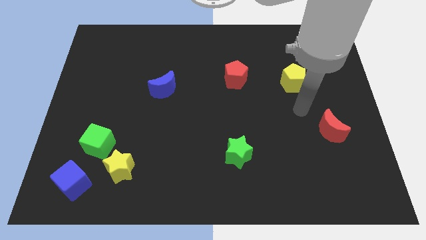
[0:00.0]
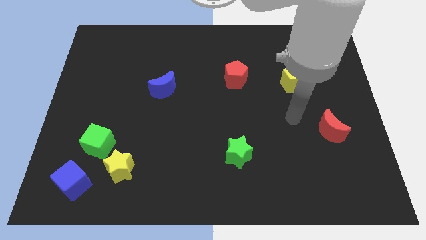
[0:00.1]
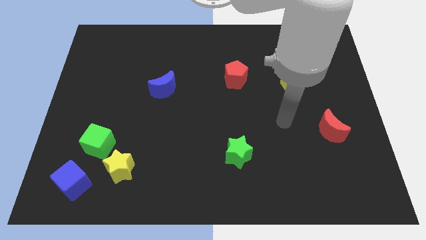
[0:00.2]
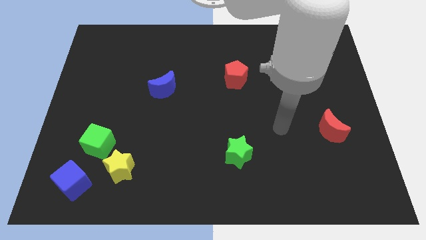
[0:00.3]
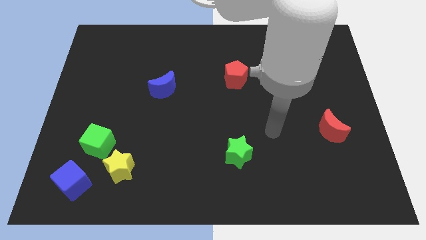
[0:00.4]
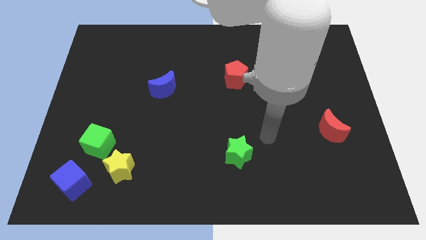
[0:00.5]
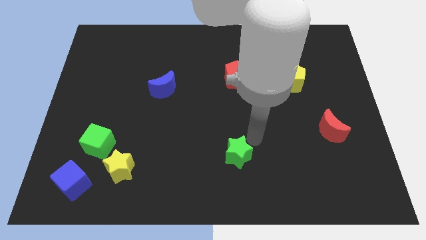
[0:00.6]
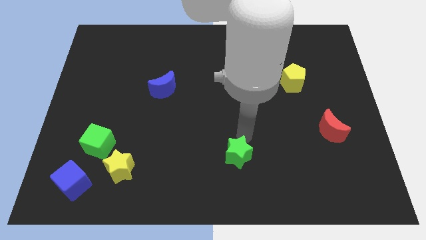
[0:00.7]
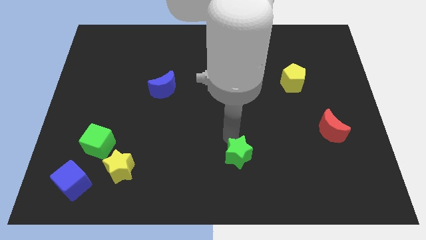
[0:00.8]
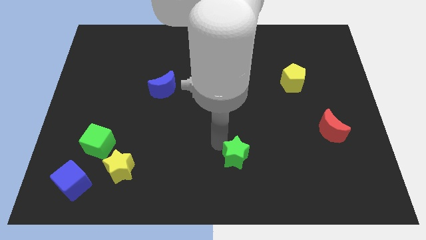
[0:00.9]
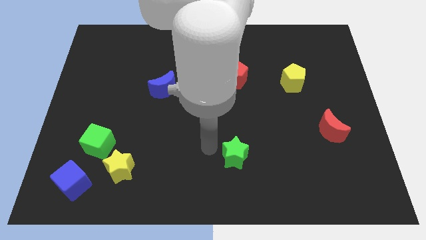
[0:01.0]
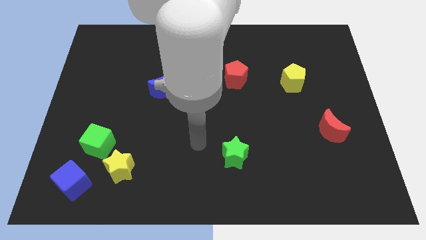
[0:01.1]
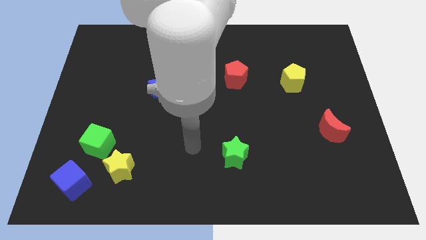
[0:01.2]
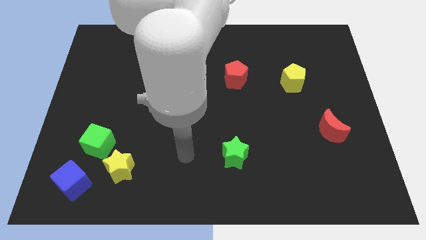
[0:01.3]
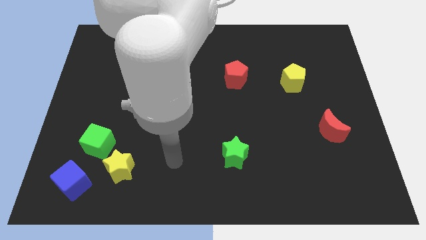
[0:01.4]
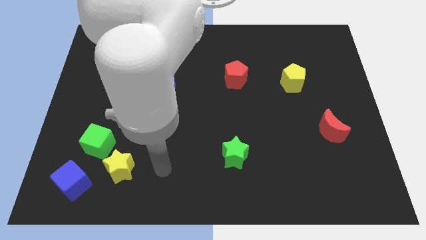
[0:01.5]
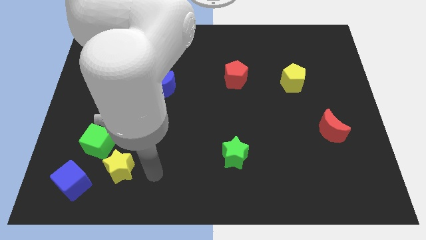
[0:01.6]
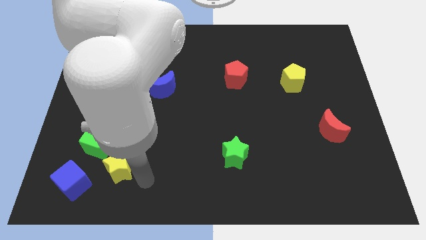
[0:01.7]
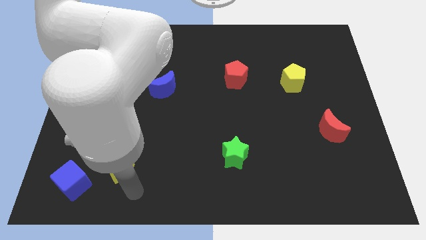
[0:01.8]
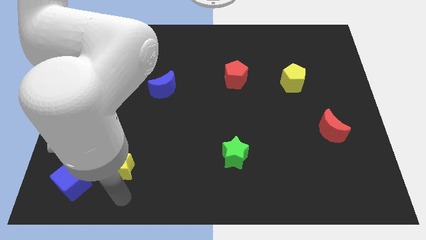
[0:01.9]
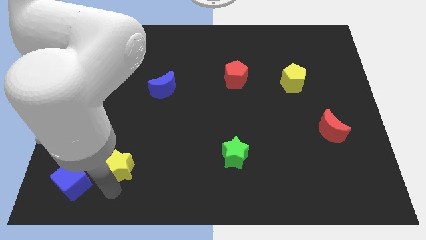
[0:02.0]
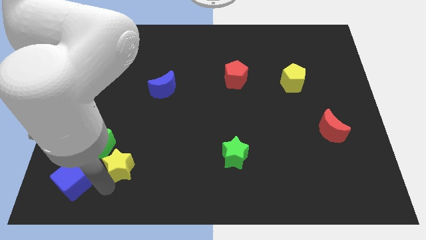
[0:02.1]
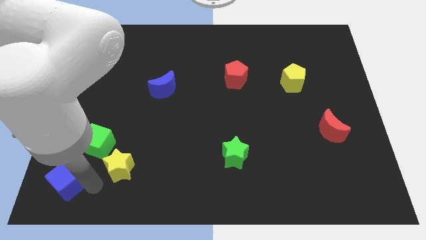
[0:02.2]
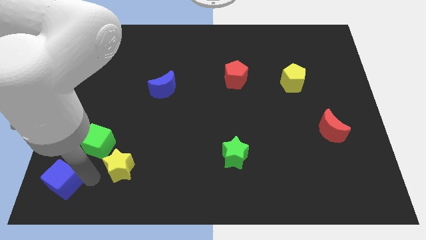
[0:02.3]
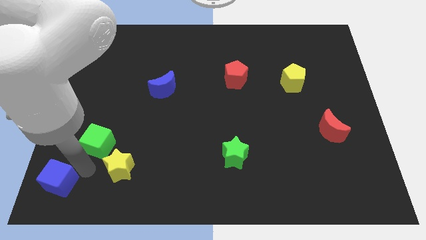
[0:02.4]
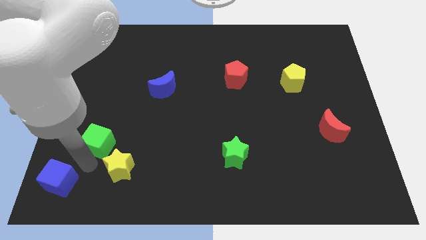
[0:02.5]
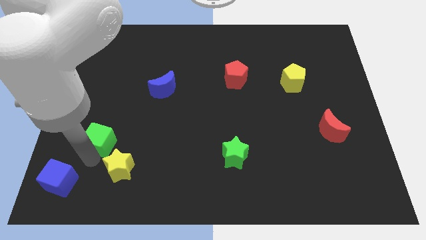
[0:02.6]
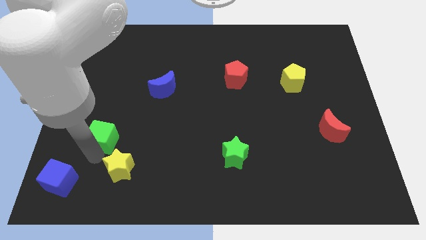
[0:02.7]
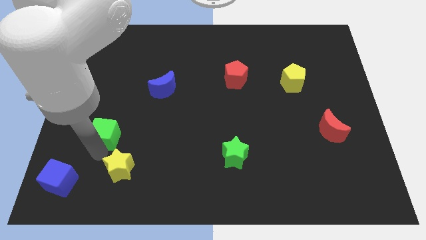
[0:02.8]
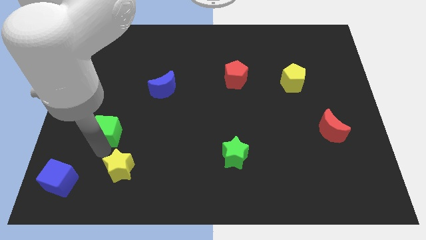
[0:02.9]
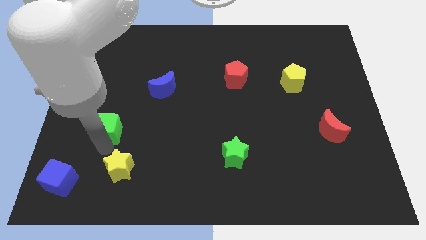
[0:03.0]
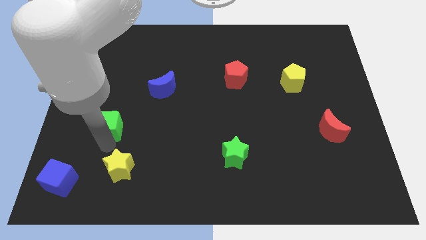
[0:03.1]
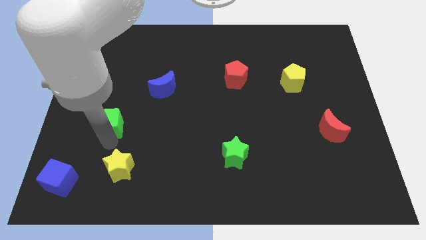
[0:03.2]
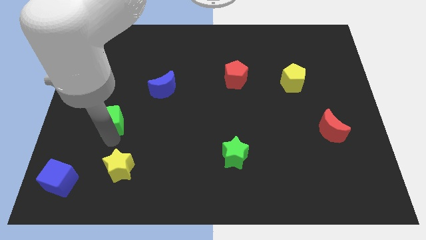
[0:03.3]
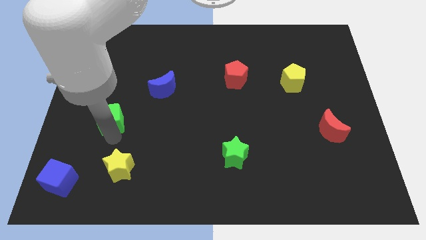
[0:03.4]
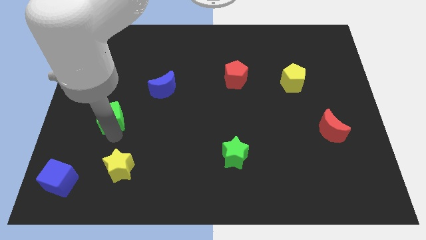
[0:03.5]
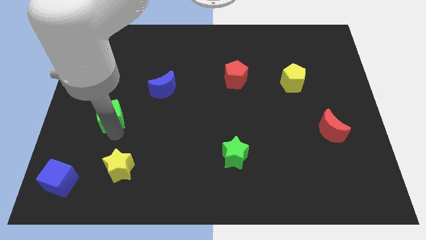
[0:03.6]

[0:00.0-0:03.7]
slide the green cube up a little

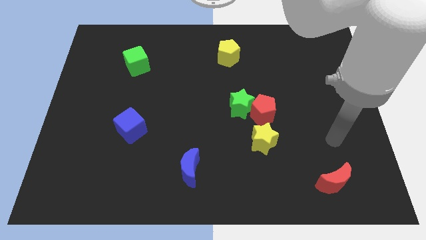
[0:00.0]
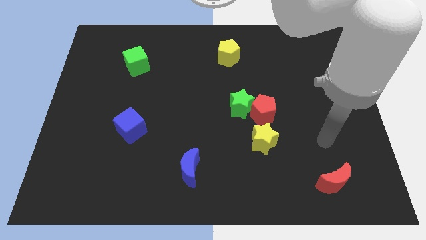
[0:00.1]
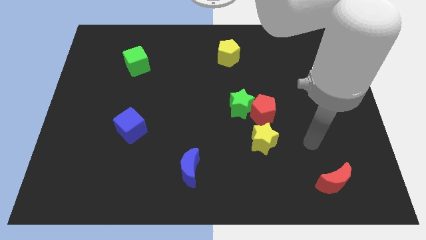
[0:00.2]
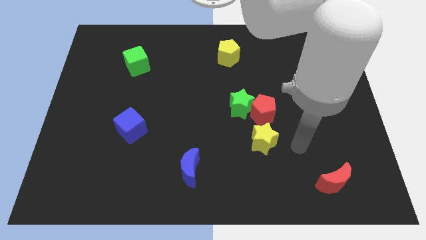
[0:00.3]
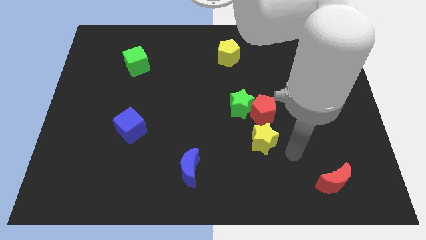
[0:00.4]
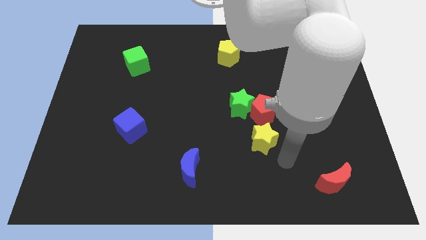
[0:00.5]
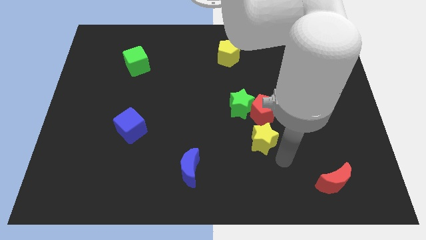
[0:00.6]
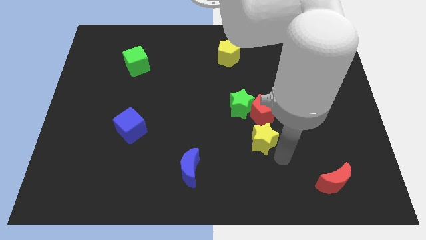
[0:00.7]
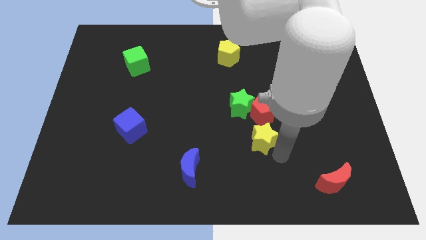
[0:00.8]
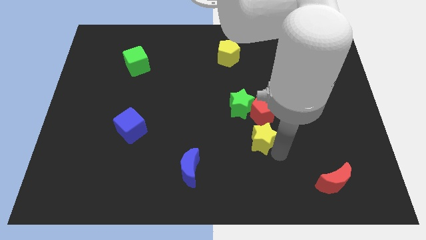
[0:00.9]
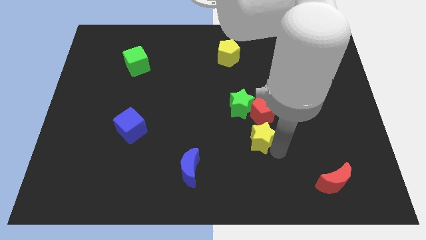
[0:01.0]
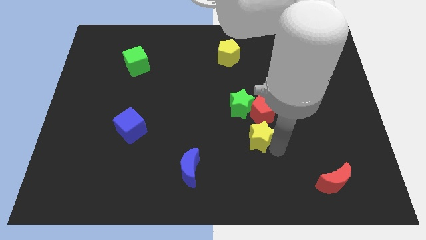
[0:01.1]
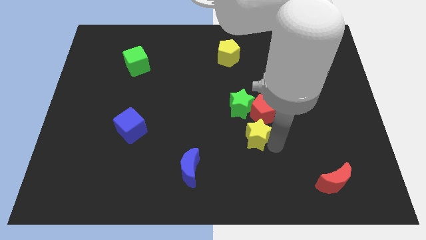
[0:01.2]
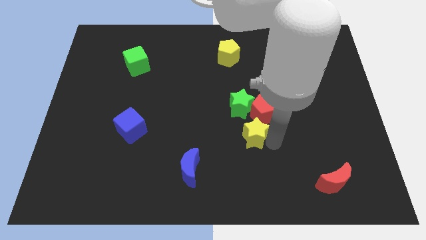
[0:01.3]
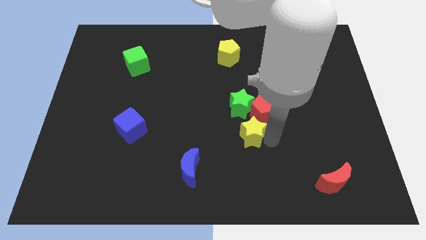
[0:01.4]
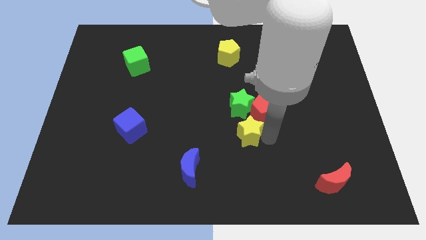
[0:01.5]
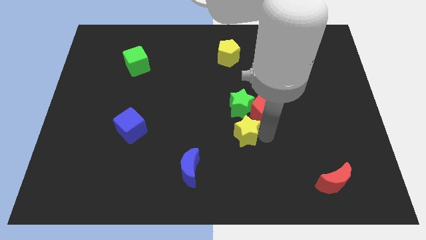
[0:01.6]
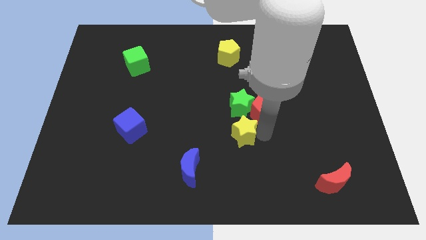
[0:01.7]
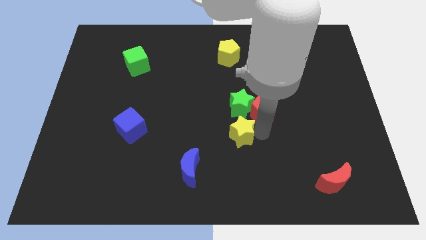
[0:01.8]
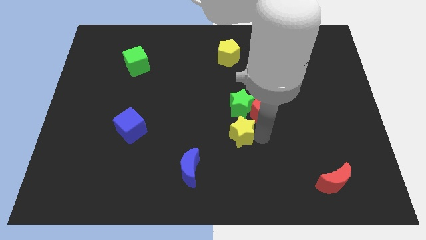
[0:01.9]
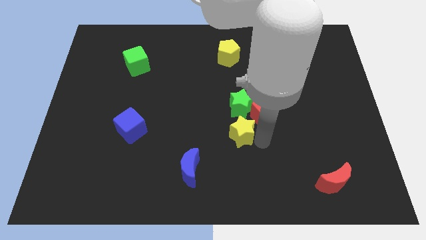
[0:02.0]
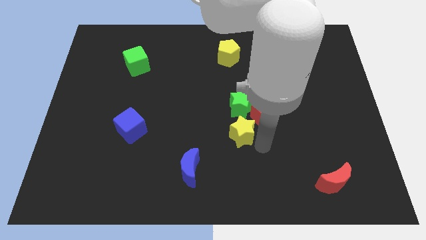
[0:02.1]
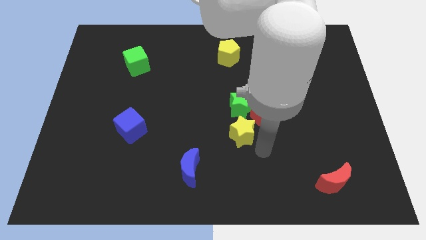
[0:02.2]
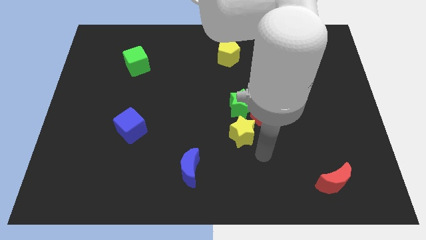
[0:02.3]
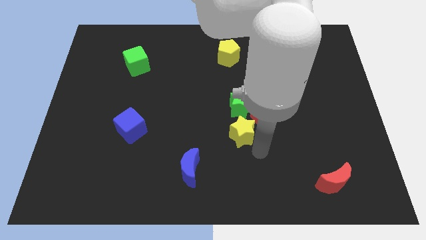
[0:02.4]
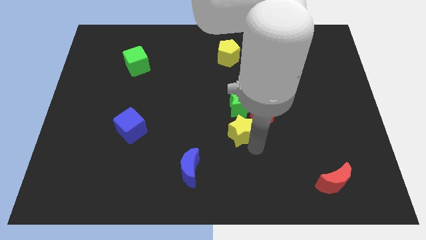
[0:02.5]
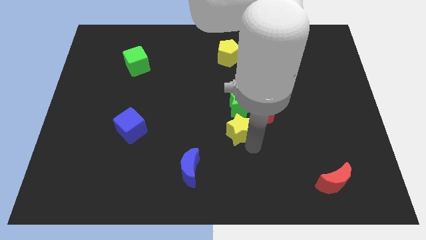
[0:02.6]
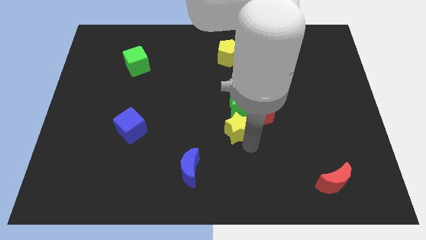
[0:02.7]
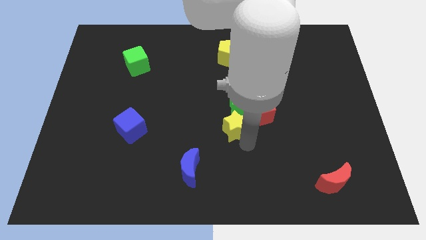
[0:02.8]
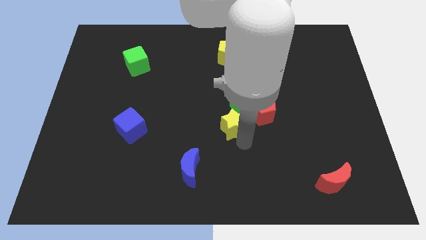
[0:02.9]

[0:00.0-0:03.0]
slide the yellow star diagonally upwards and left slightly

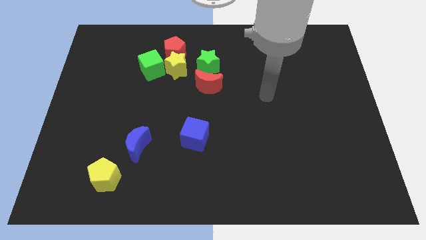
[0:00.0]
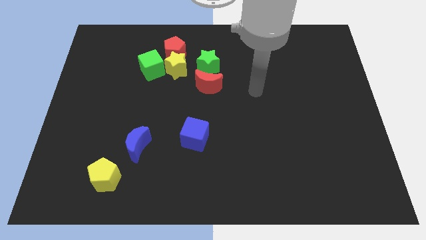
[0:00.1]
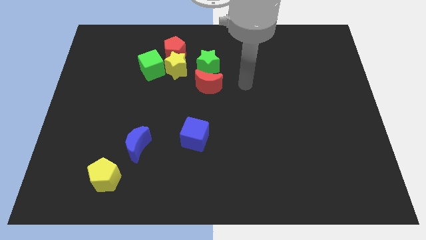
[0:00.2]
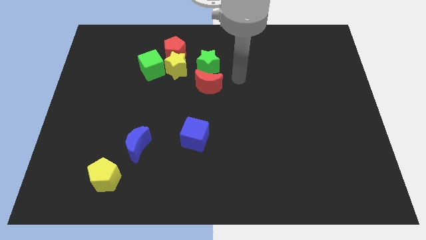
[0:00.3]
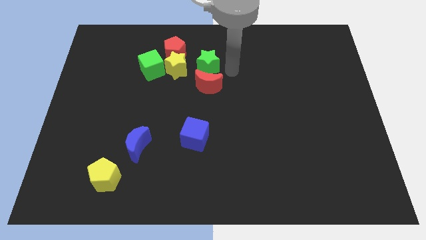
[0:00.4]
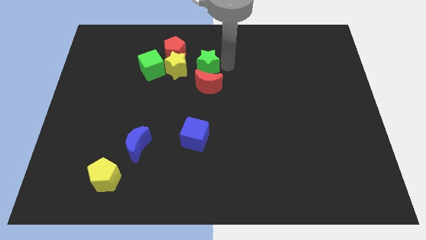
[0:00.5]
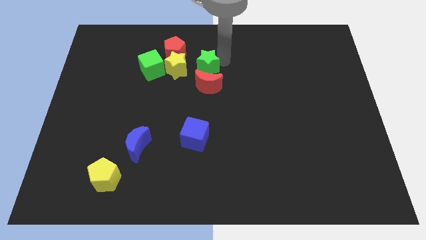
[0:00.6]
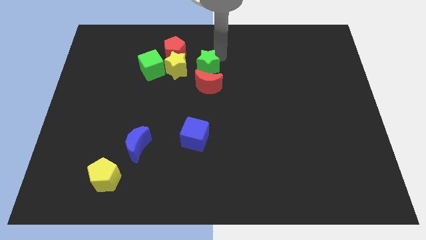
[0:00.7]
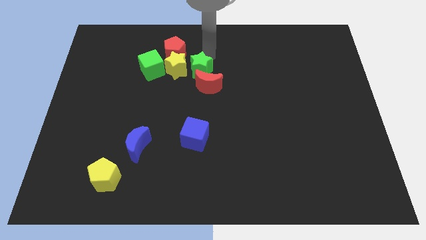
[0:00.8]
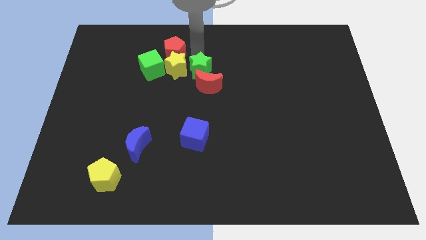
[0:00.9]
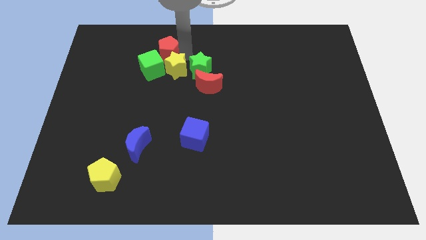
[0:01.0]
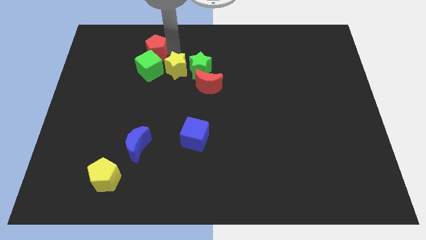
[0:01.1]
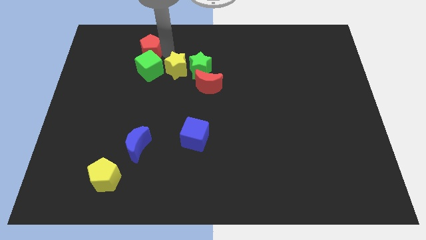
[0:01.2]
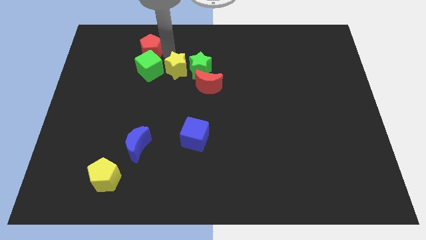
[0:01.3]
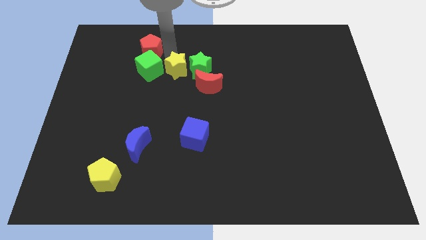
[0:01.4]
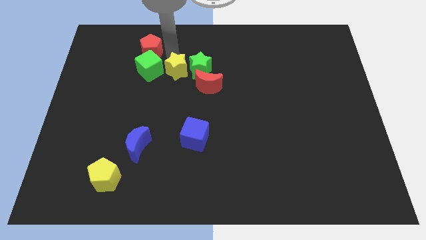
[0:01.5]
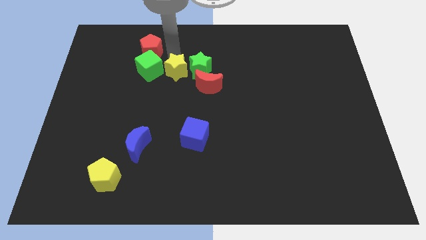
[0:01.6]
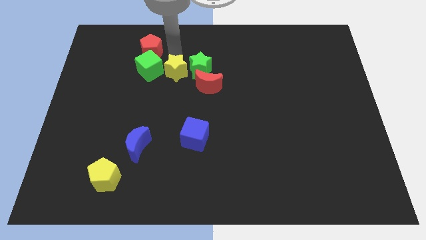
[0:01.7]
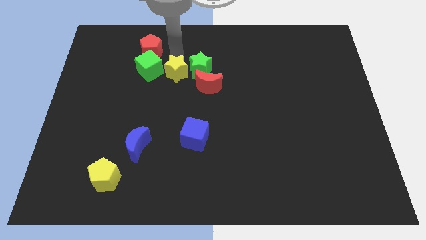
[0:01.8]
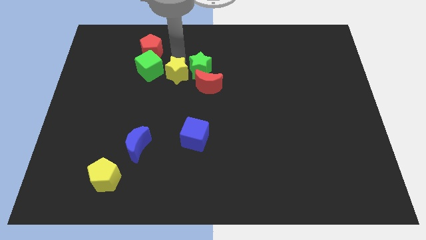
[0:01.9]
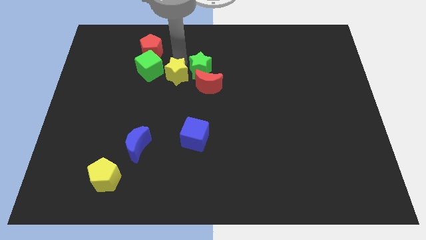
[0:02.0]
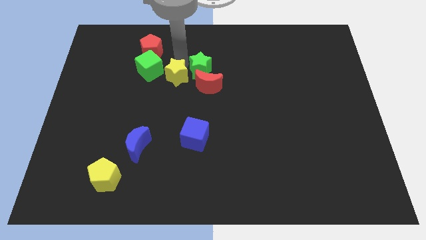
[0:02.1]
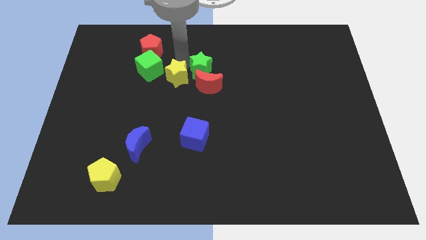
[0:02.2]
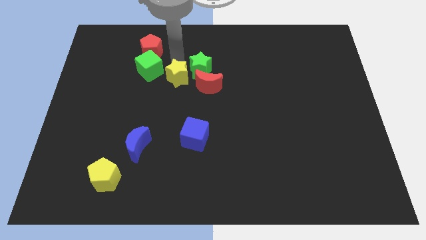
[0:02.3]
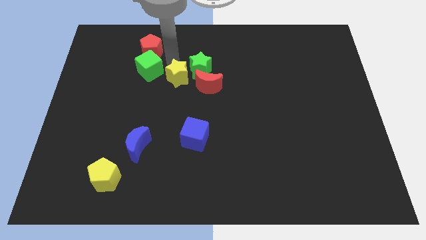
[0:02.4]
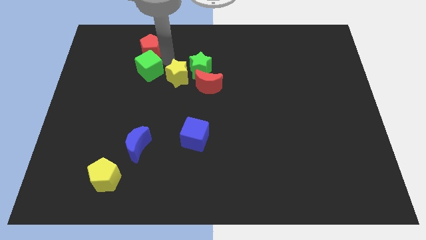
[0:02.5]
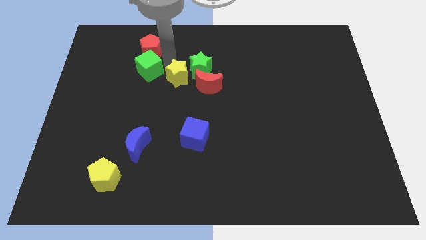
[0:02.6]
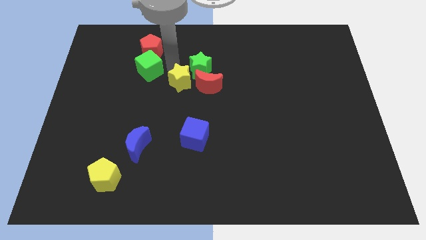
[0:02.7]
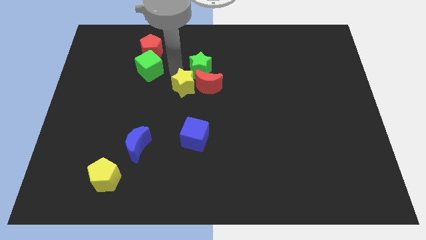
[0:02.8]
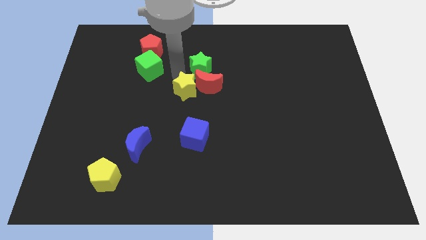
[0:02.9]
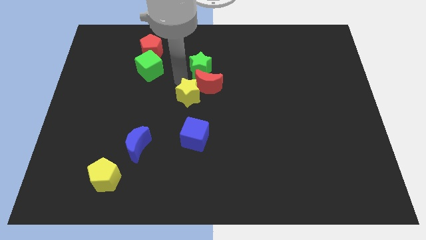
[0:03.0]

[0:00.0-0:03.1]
push the yellow star diagonally downwards and to the right somewhat
